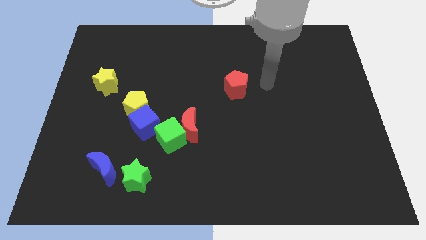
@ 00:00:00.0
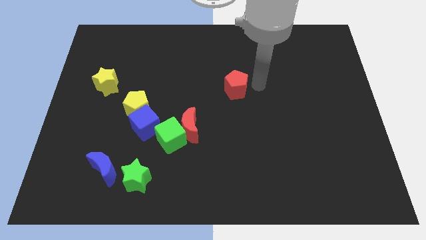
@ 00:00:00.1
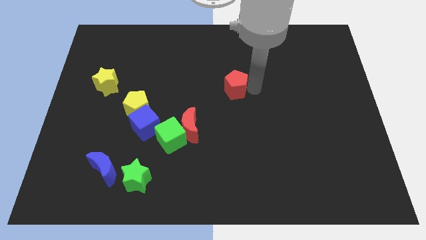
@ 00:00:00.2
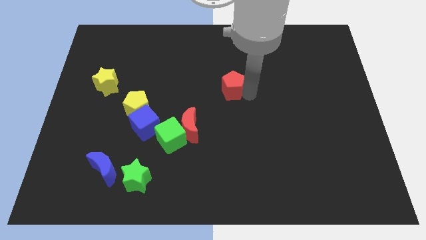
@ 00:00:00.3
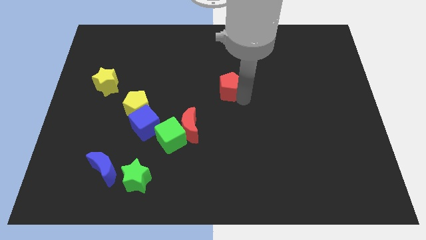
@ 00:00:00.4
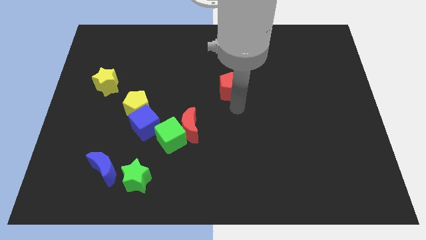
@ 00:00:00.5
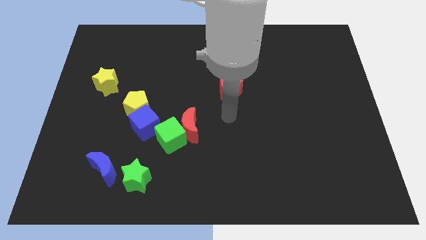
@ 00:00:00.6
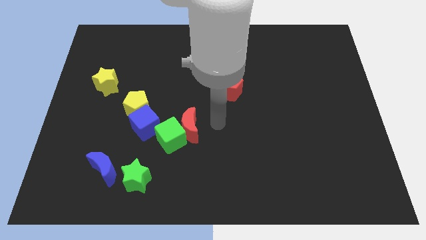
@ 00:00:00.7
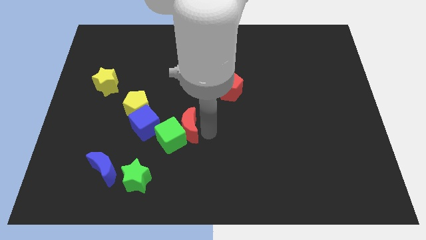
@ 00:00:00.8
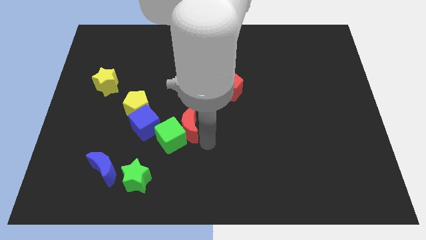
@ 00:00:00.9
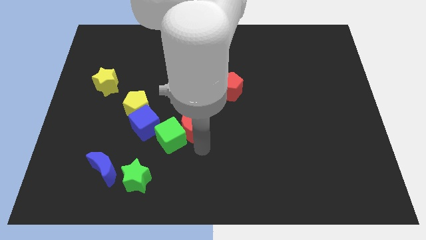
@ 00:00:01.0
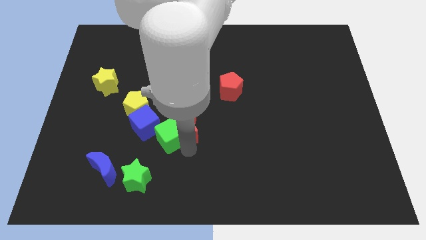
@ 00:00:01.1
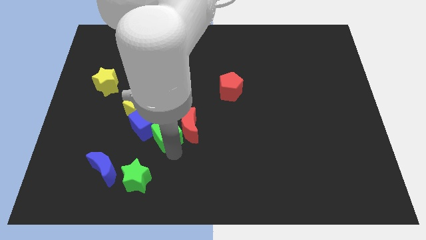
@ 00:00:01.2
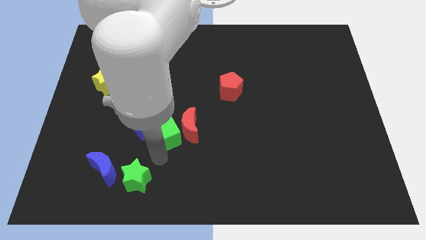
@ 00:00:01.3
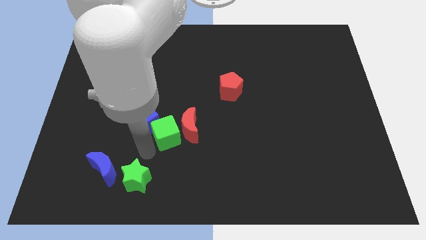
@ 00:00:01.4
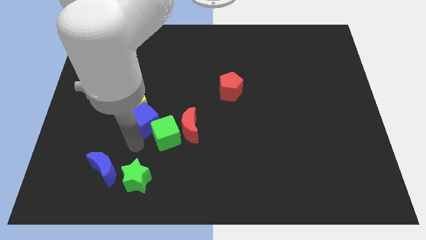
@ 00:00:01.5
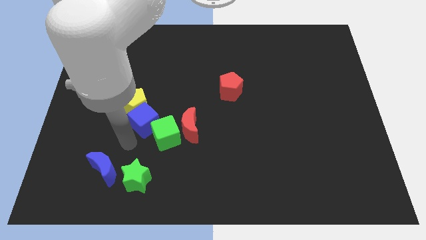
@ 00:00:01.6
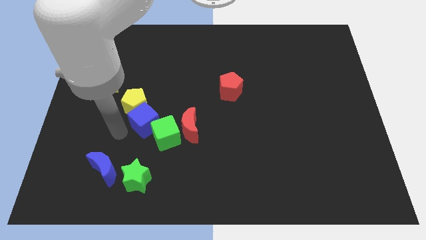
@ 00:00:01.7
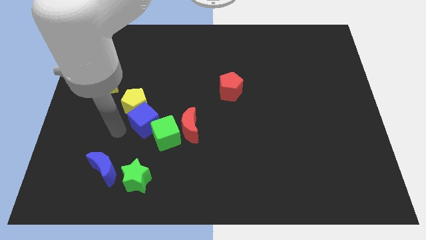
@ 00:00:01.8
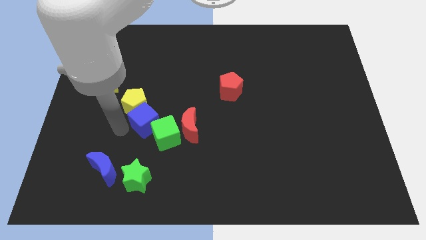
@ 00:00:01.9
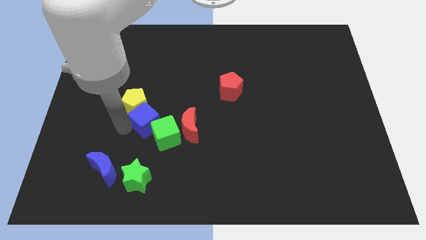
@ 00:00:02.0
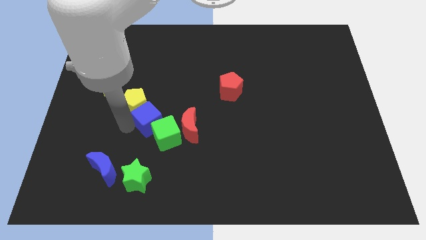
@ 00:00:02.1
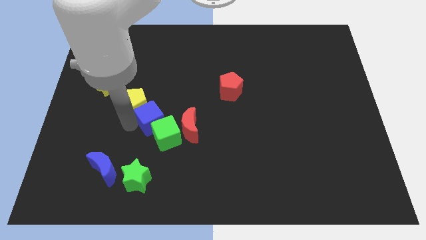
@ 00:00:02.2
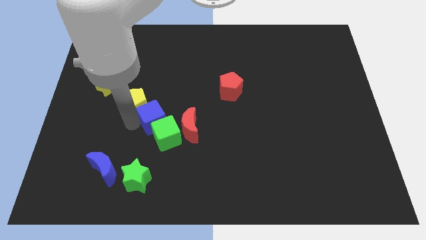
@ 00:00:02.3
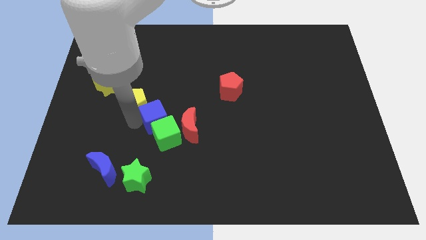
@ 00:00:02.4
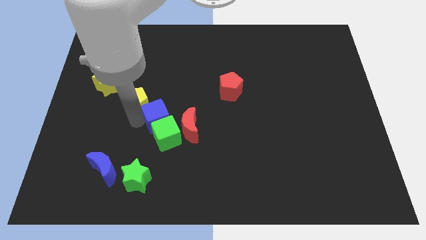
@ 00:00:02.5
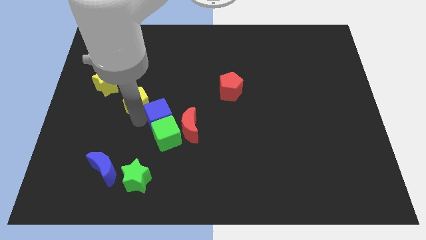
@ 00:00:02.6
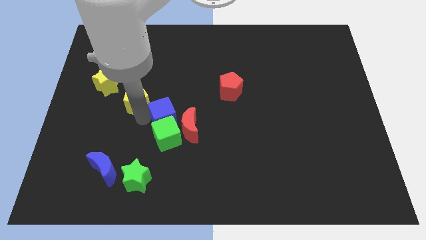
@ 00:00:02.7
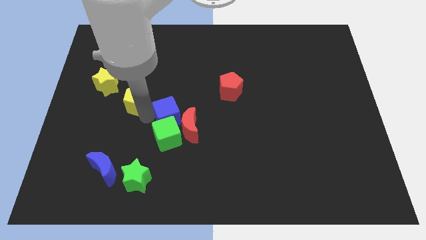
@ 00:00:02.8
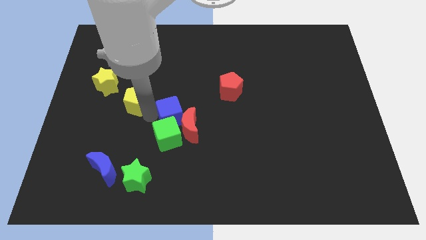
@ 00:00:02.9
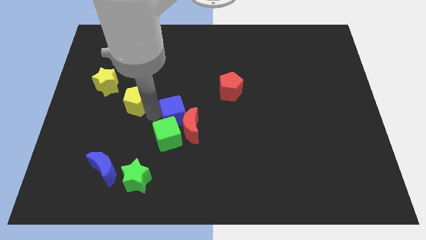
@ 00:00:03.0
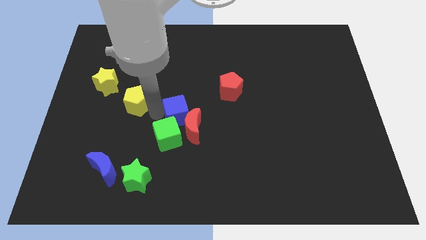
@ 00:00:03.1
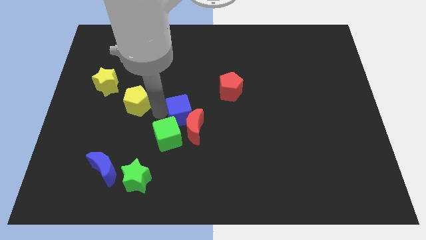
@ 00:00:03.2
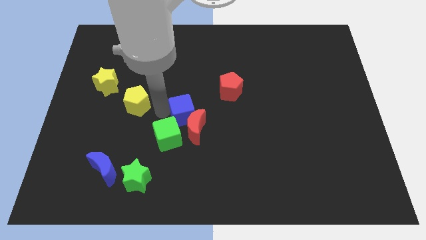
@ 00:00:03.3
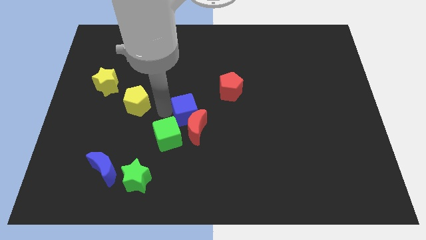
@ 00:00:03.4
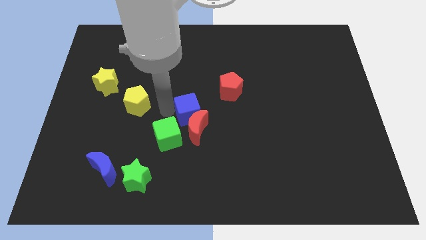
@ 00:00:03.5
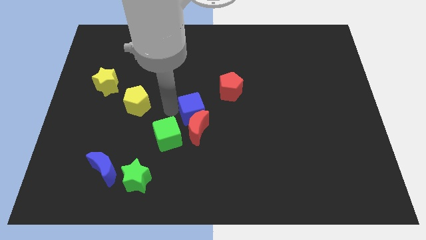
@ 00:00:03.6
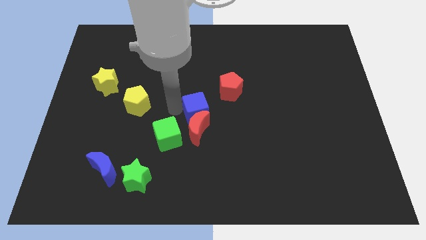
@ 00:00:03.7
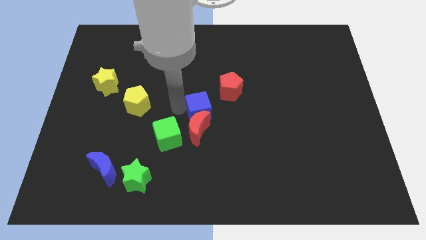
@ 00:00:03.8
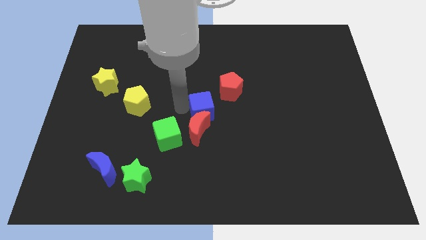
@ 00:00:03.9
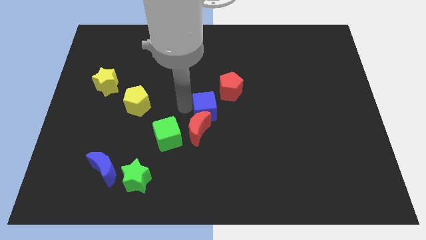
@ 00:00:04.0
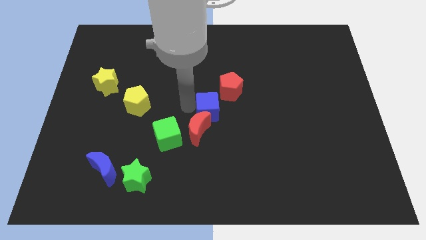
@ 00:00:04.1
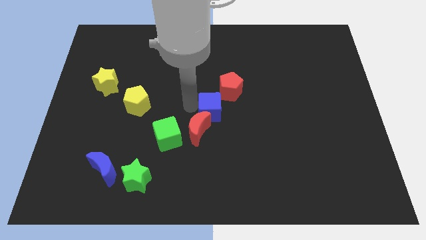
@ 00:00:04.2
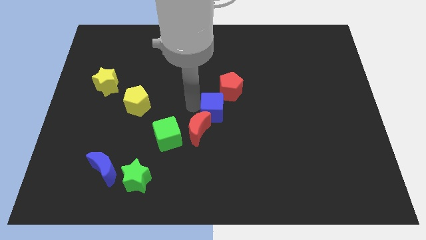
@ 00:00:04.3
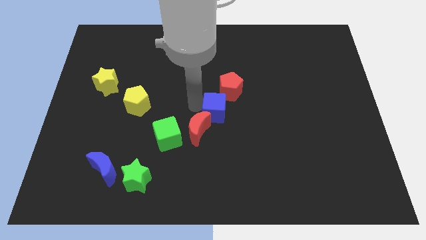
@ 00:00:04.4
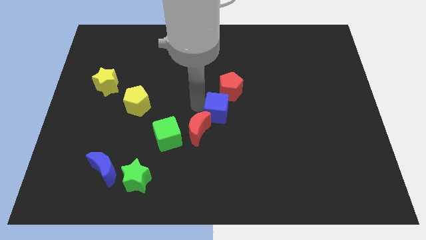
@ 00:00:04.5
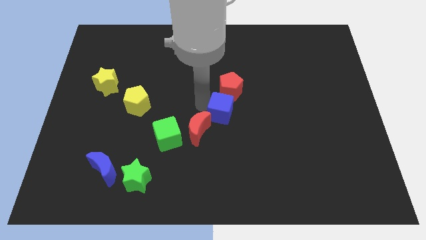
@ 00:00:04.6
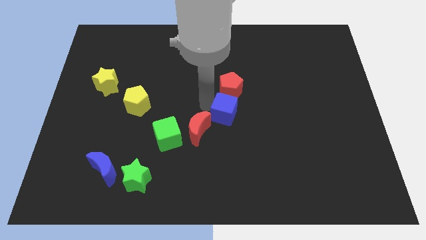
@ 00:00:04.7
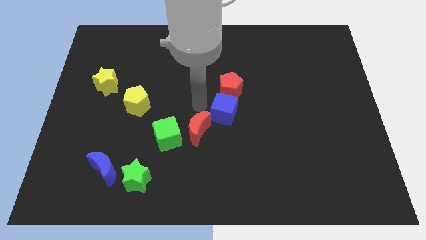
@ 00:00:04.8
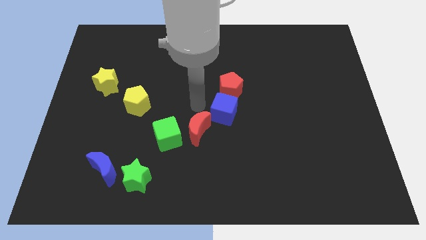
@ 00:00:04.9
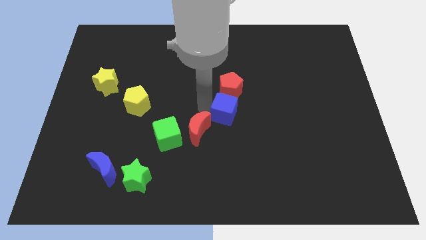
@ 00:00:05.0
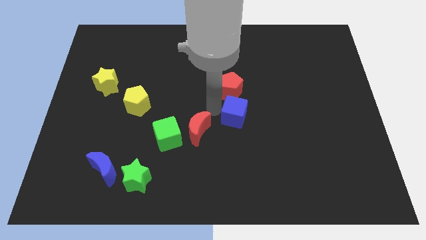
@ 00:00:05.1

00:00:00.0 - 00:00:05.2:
push the blue cube to the right

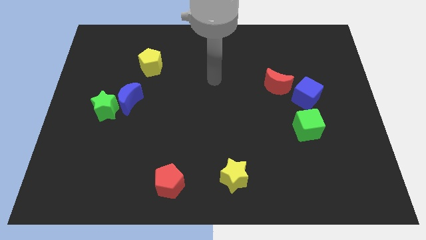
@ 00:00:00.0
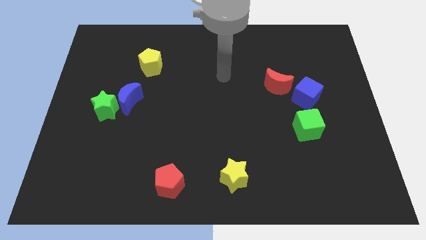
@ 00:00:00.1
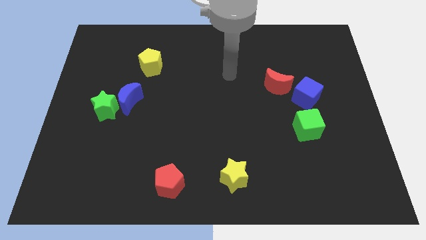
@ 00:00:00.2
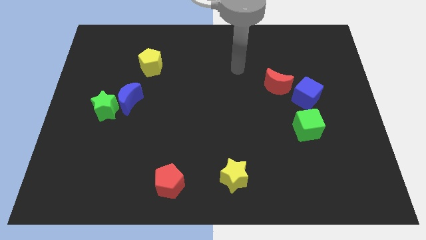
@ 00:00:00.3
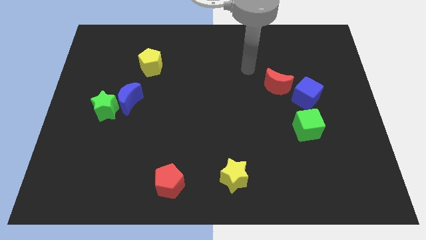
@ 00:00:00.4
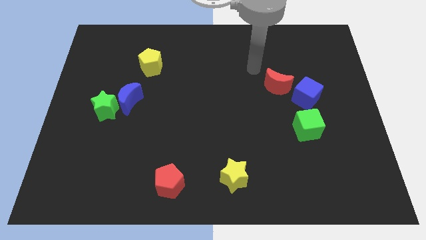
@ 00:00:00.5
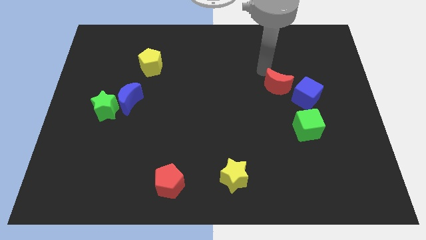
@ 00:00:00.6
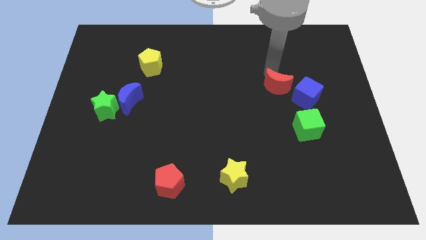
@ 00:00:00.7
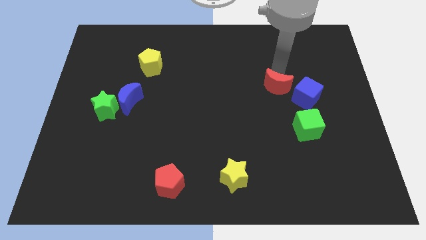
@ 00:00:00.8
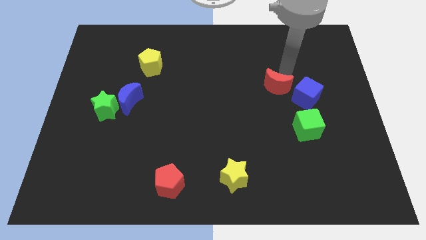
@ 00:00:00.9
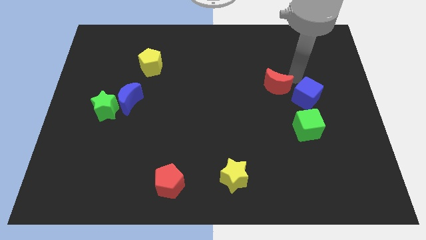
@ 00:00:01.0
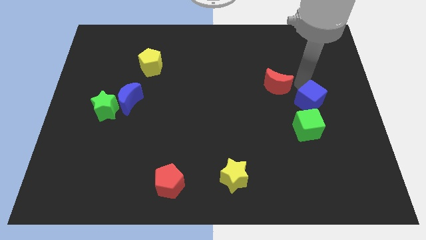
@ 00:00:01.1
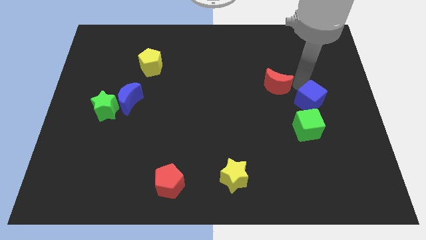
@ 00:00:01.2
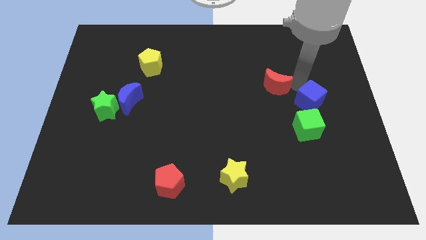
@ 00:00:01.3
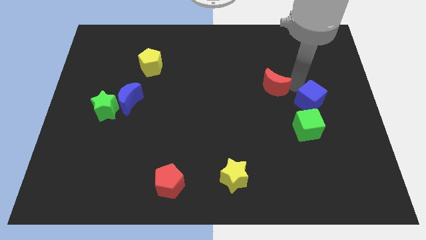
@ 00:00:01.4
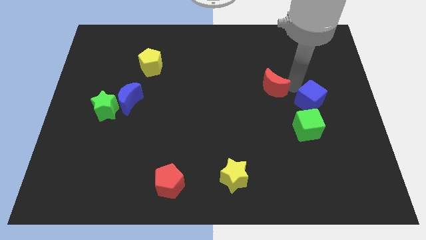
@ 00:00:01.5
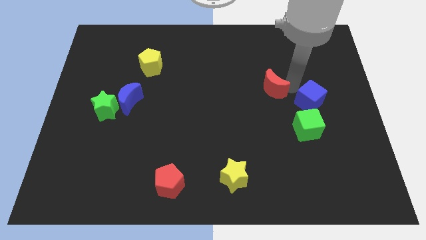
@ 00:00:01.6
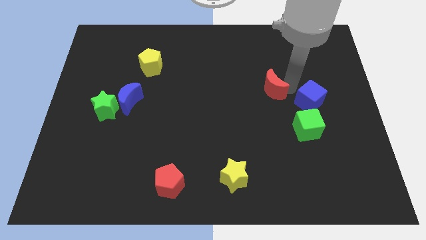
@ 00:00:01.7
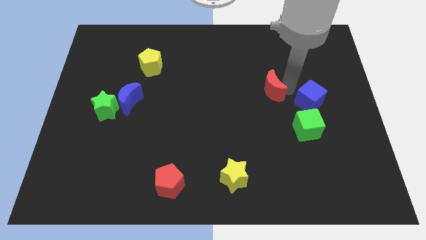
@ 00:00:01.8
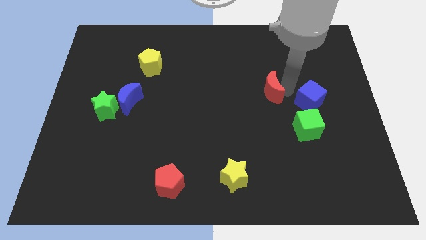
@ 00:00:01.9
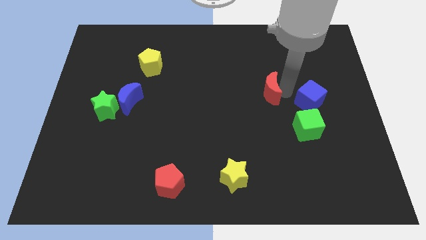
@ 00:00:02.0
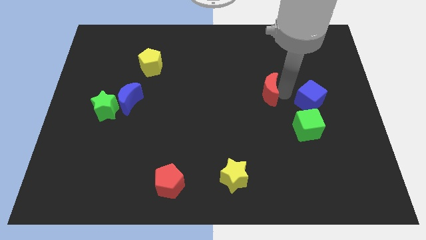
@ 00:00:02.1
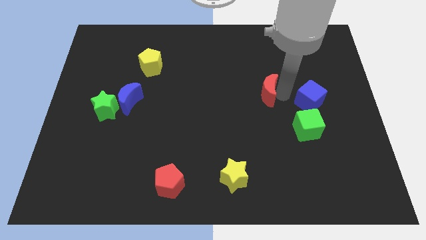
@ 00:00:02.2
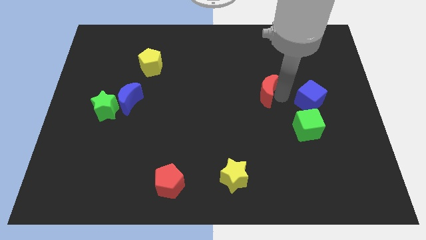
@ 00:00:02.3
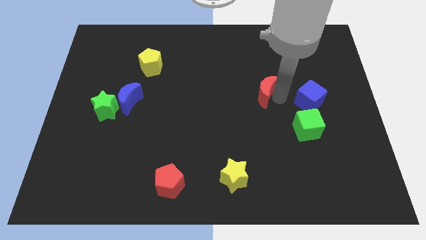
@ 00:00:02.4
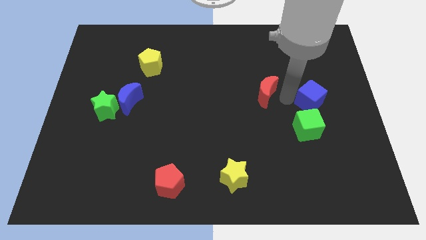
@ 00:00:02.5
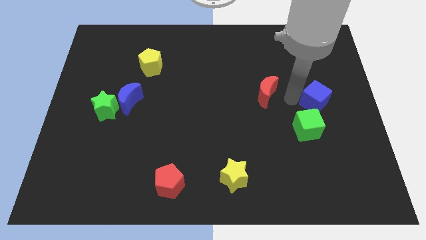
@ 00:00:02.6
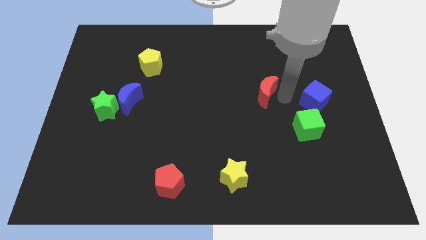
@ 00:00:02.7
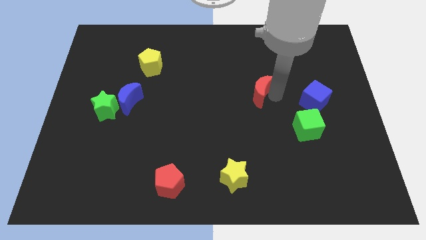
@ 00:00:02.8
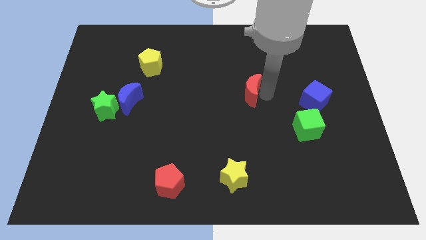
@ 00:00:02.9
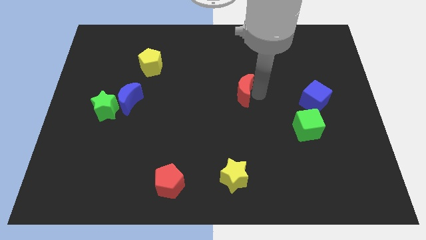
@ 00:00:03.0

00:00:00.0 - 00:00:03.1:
slightly push the red moon left
